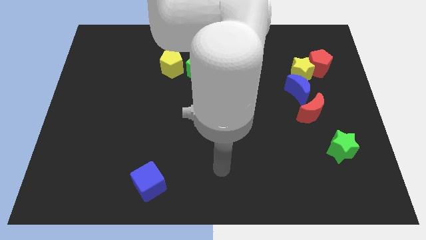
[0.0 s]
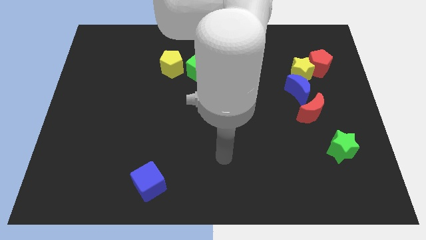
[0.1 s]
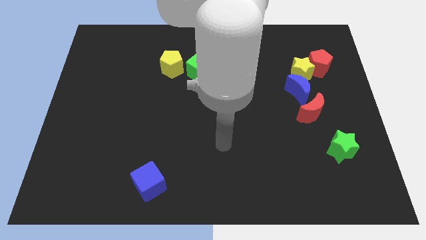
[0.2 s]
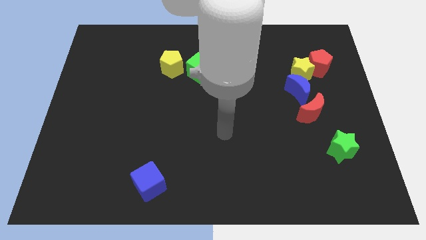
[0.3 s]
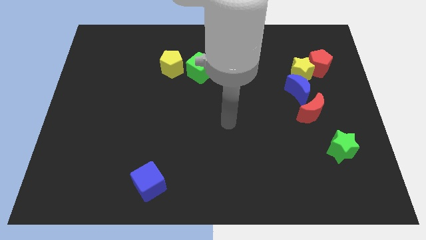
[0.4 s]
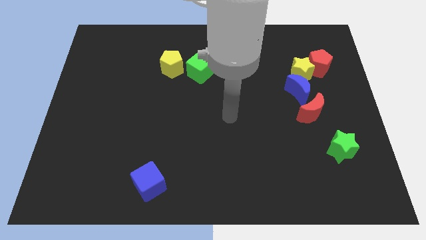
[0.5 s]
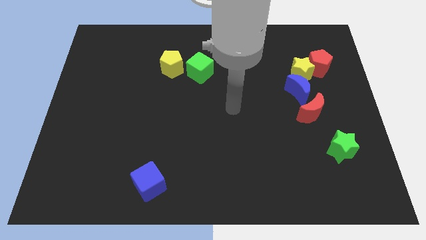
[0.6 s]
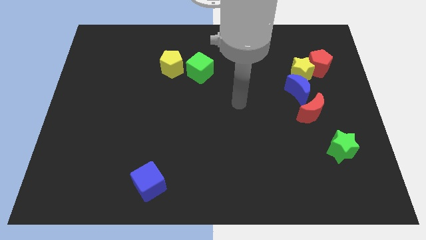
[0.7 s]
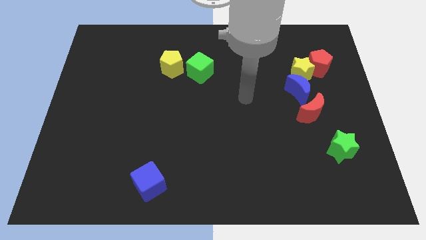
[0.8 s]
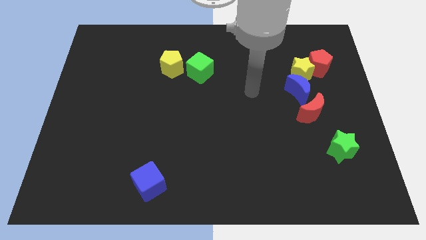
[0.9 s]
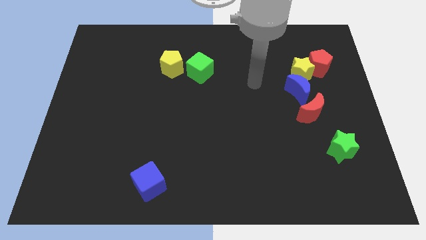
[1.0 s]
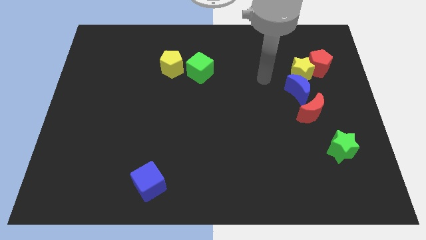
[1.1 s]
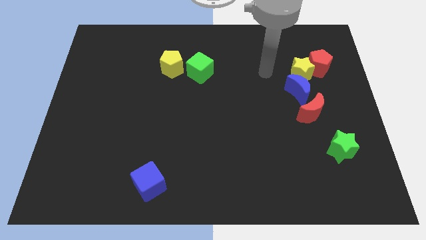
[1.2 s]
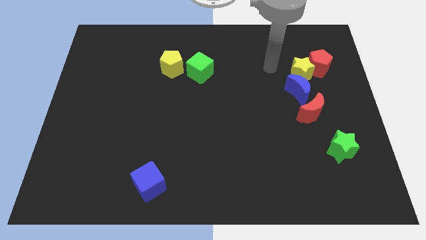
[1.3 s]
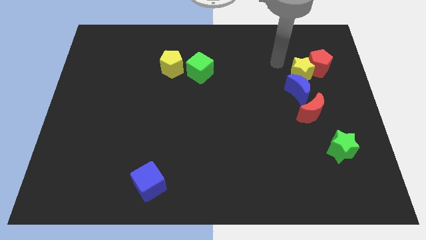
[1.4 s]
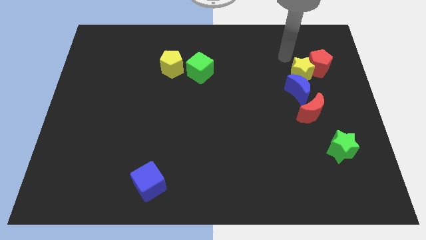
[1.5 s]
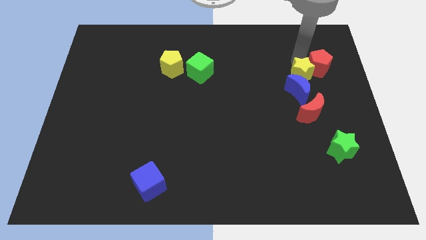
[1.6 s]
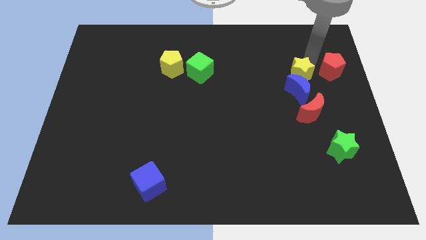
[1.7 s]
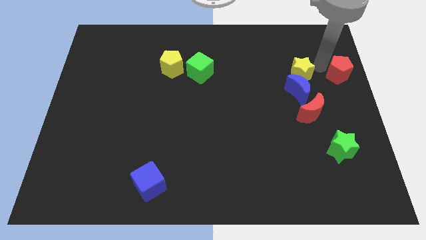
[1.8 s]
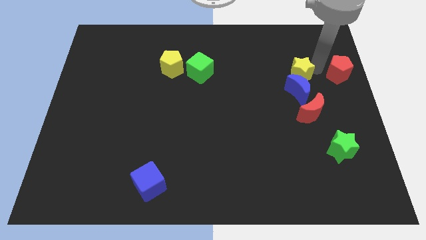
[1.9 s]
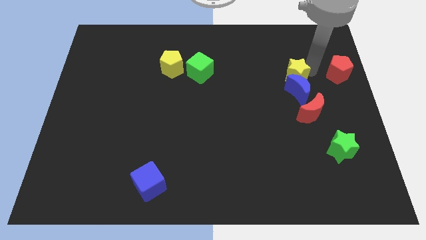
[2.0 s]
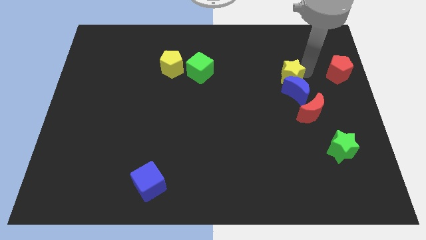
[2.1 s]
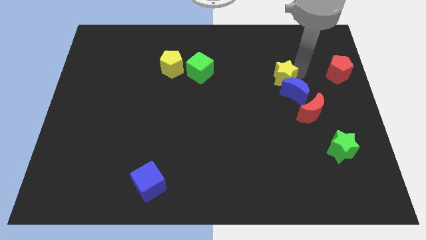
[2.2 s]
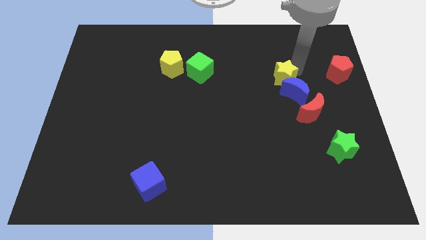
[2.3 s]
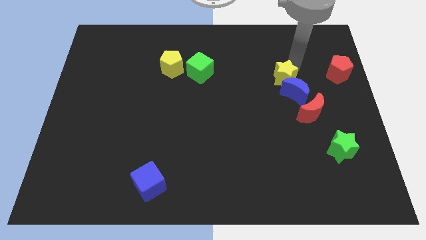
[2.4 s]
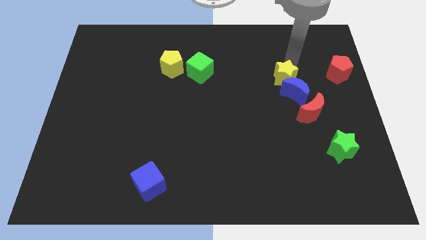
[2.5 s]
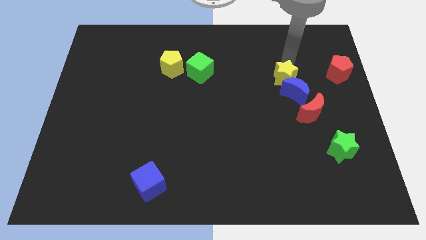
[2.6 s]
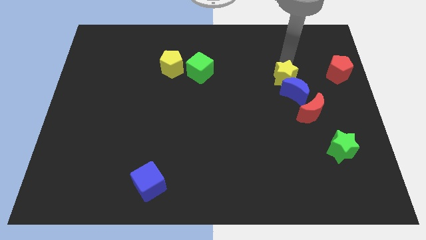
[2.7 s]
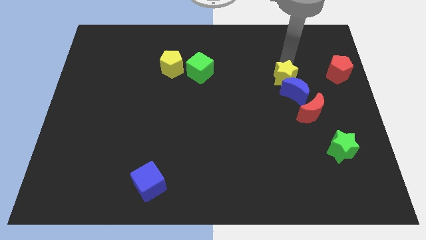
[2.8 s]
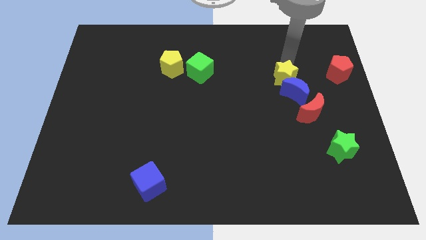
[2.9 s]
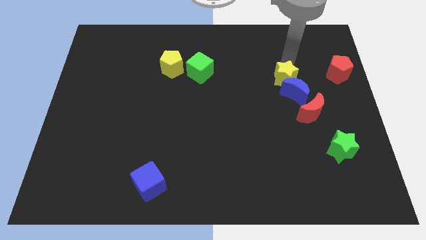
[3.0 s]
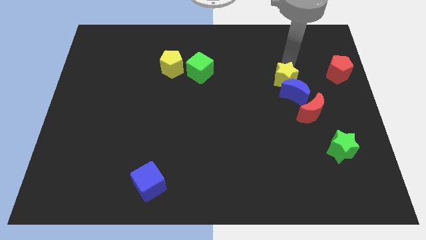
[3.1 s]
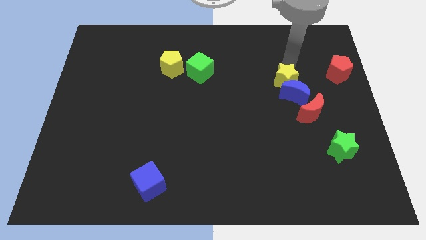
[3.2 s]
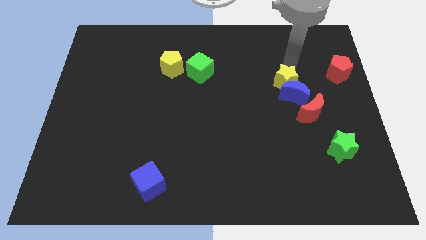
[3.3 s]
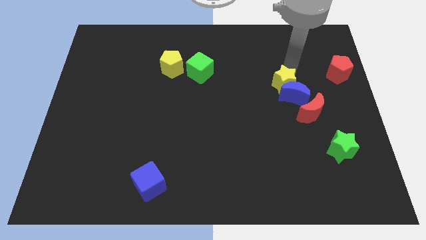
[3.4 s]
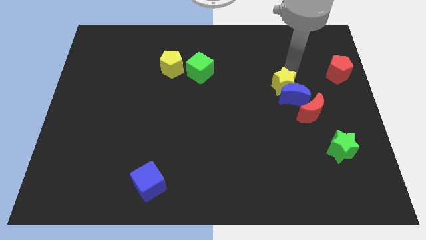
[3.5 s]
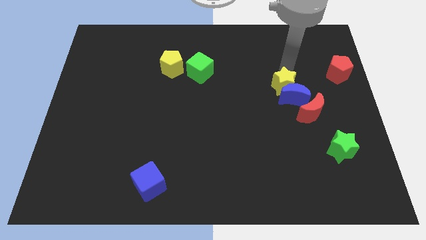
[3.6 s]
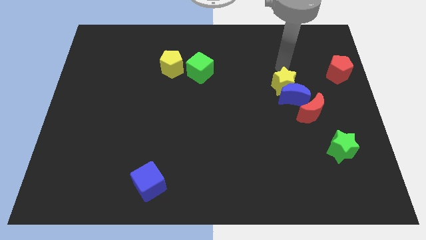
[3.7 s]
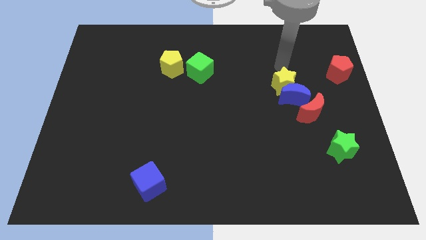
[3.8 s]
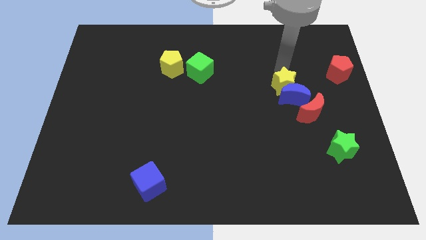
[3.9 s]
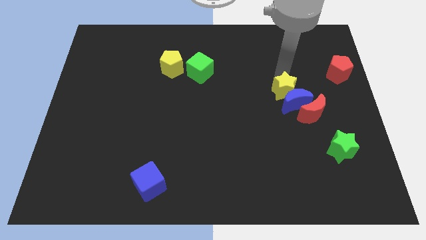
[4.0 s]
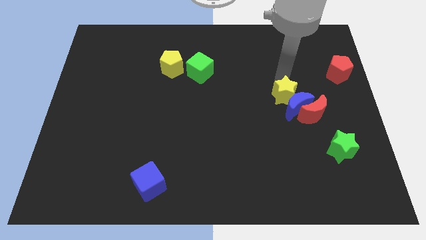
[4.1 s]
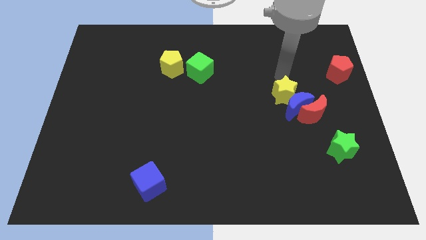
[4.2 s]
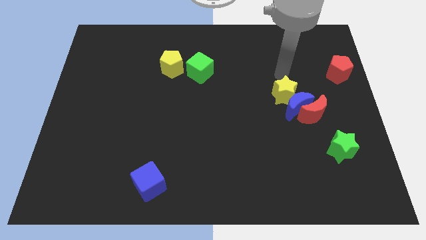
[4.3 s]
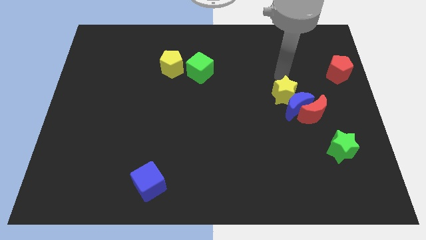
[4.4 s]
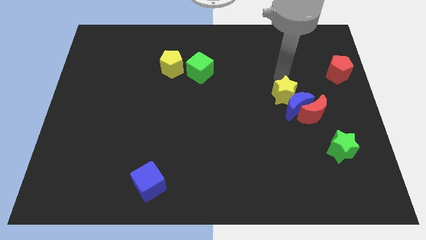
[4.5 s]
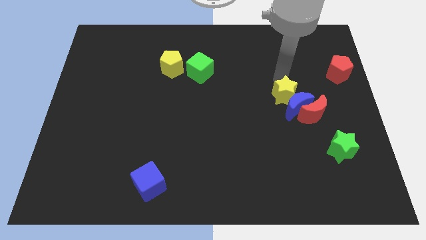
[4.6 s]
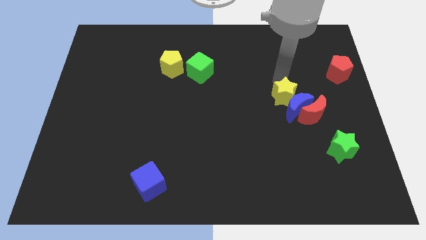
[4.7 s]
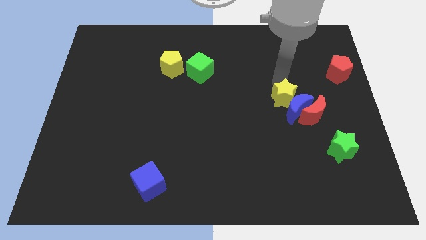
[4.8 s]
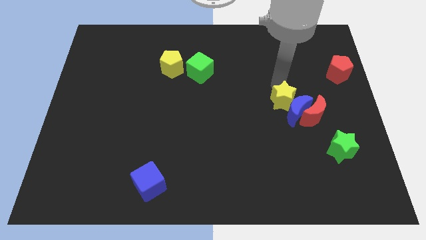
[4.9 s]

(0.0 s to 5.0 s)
slide the yellow star down a little bit

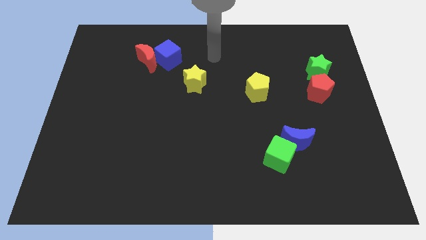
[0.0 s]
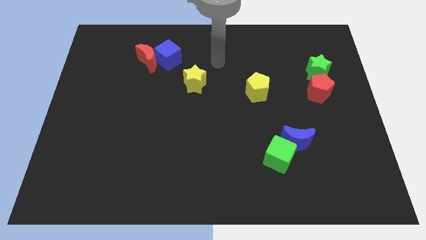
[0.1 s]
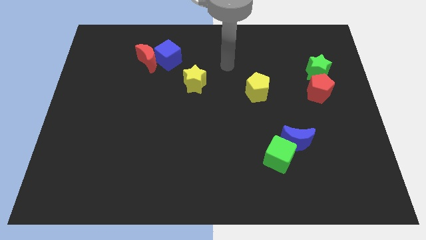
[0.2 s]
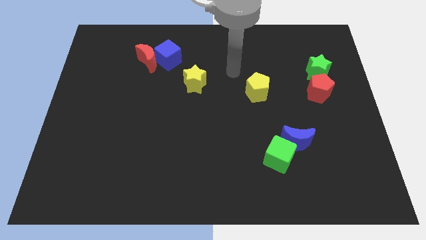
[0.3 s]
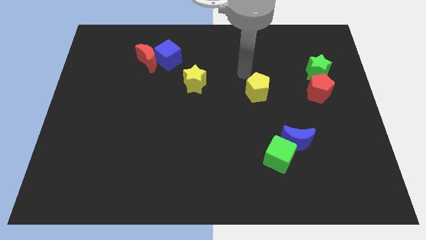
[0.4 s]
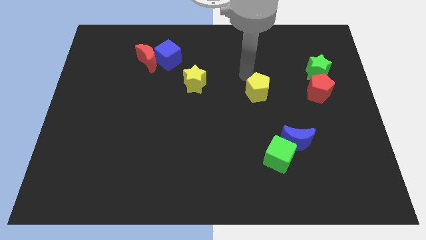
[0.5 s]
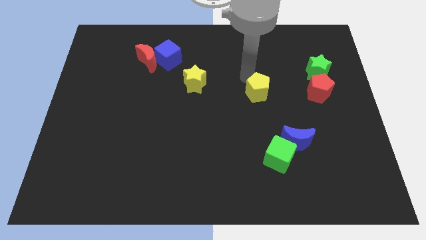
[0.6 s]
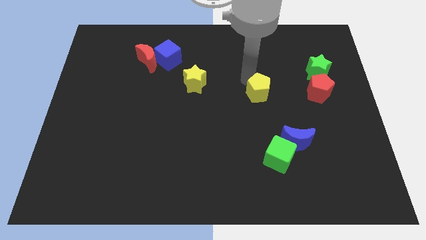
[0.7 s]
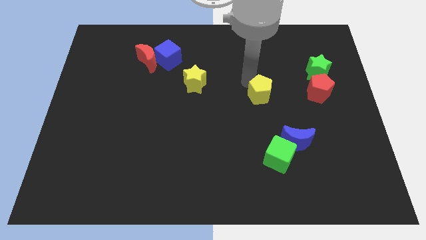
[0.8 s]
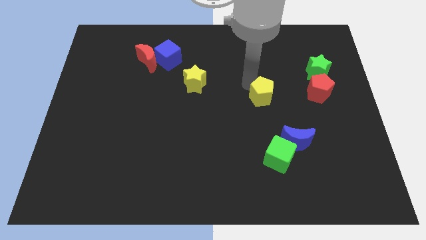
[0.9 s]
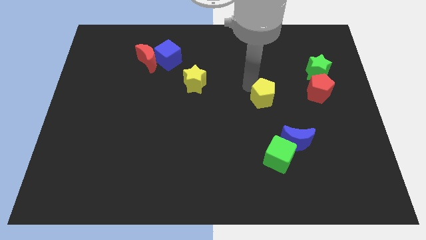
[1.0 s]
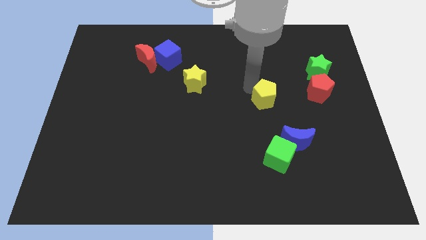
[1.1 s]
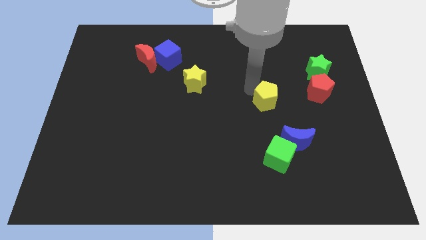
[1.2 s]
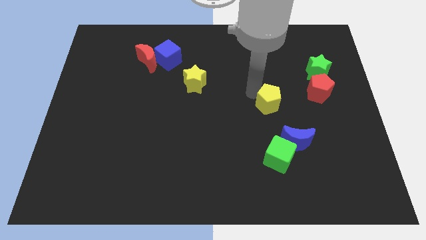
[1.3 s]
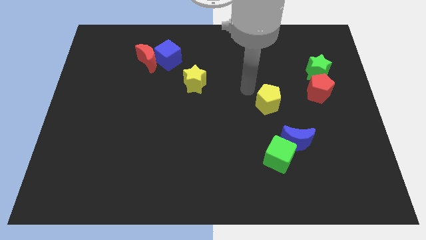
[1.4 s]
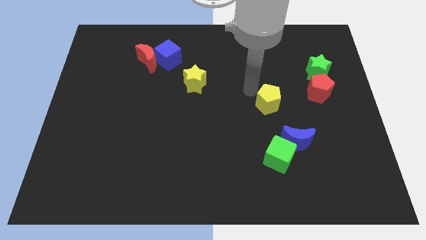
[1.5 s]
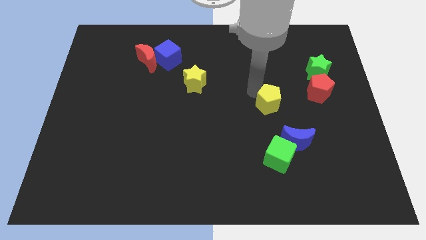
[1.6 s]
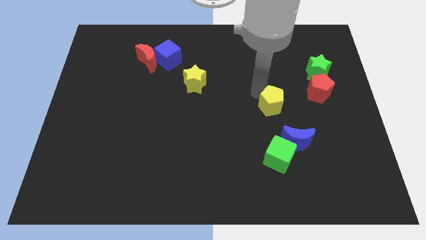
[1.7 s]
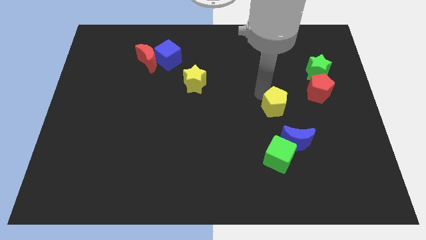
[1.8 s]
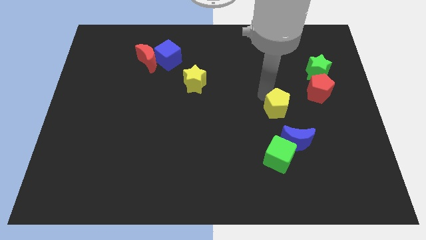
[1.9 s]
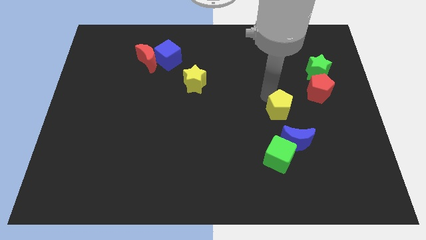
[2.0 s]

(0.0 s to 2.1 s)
slightly slide the yellow pentagon downwards and then right

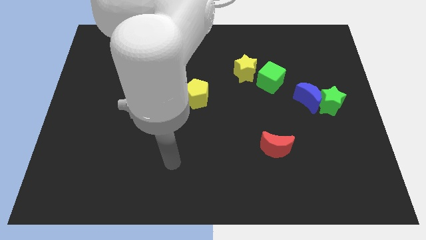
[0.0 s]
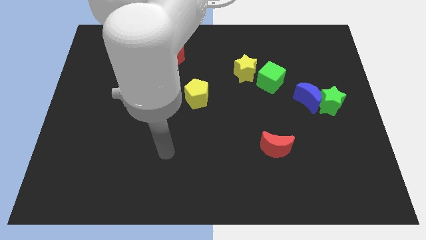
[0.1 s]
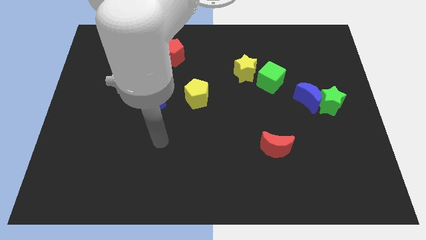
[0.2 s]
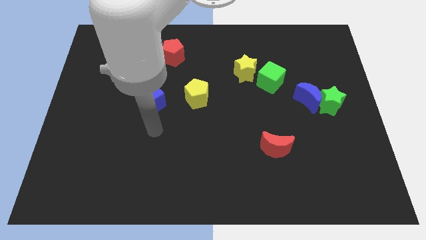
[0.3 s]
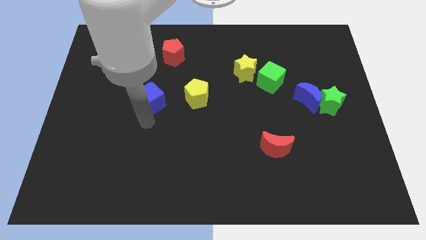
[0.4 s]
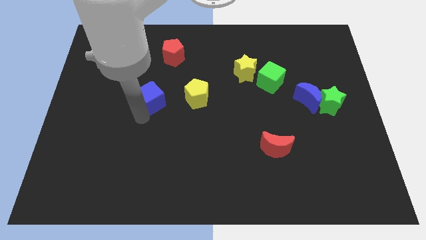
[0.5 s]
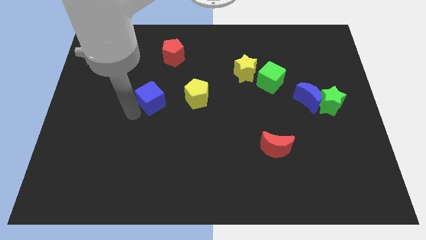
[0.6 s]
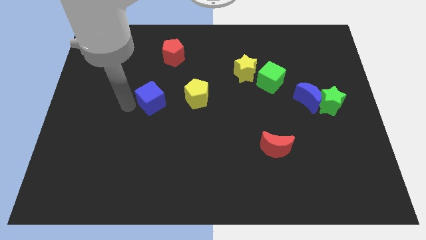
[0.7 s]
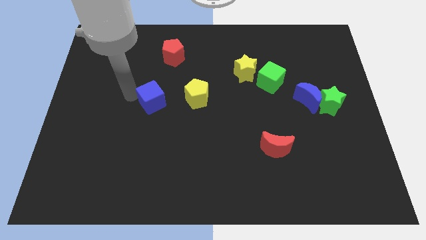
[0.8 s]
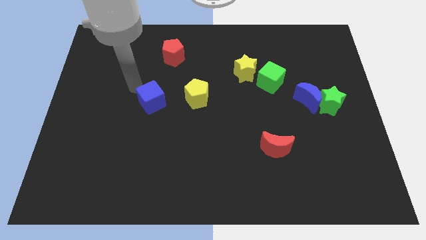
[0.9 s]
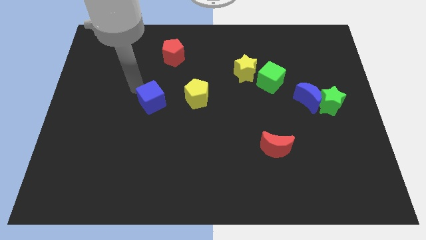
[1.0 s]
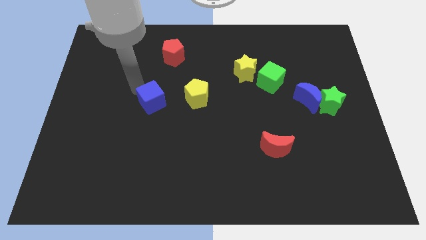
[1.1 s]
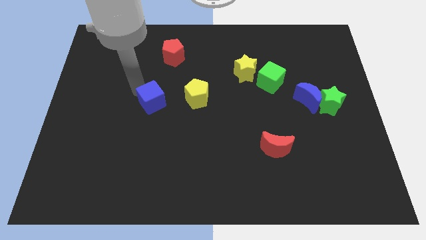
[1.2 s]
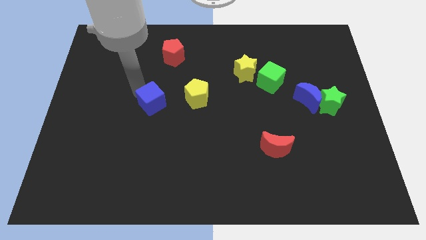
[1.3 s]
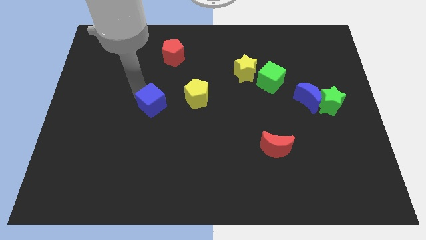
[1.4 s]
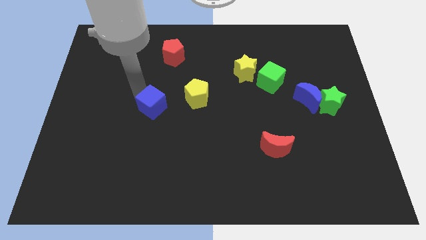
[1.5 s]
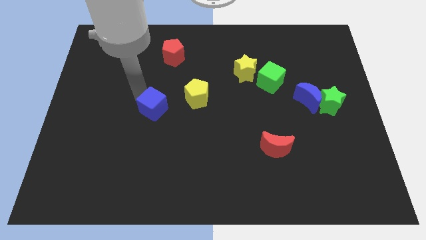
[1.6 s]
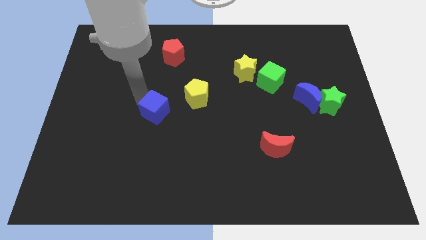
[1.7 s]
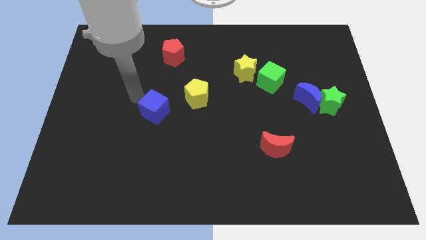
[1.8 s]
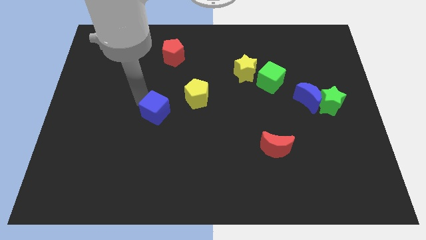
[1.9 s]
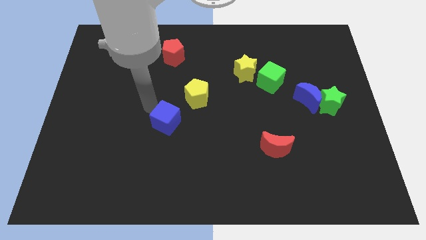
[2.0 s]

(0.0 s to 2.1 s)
push the blue cube diagonally down and to the right slightly
